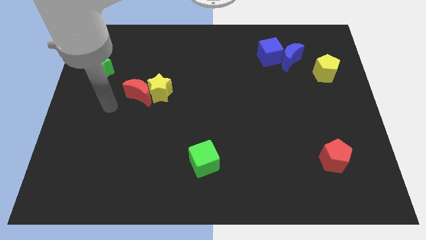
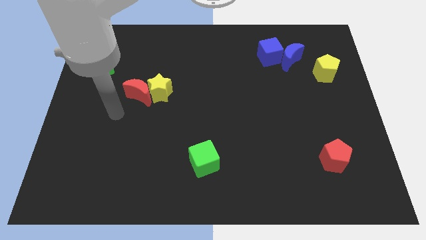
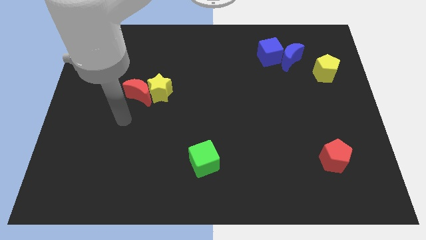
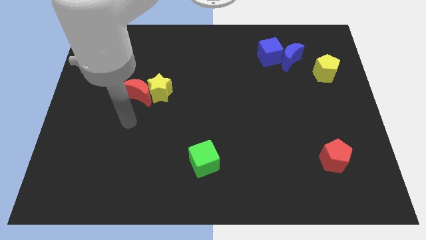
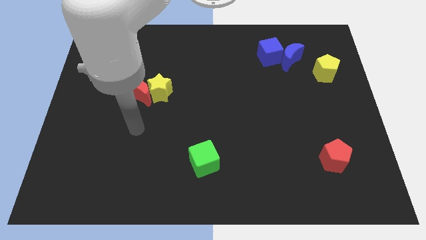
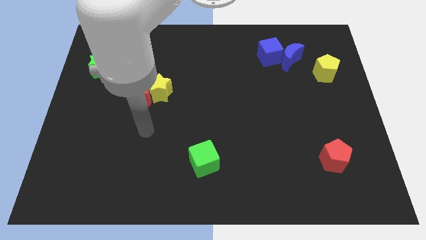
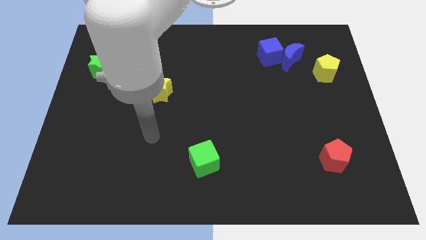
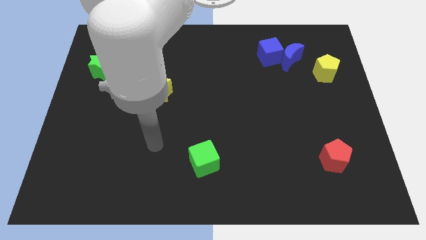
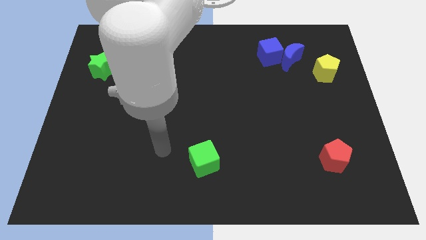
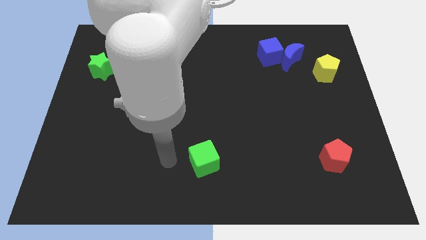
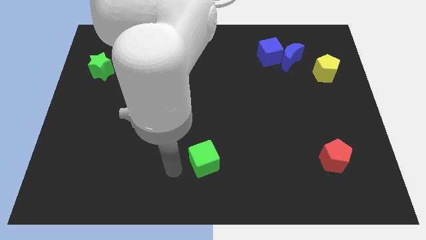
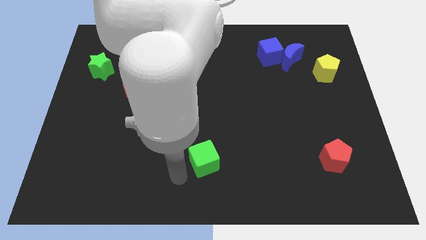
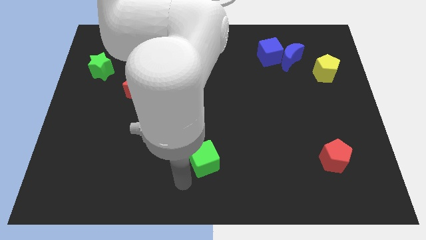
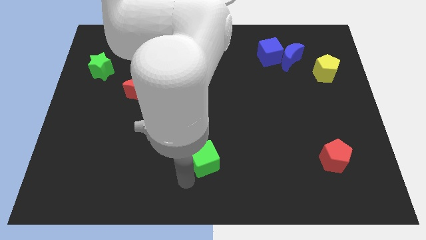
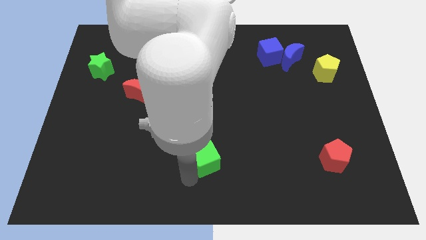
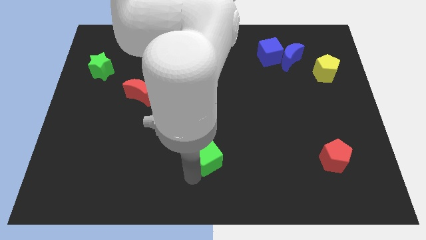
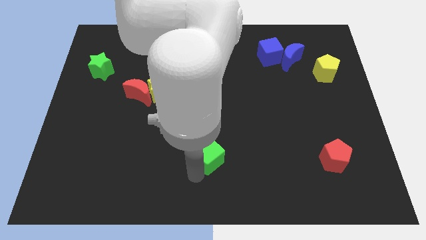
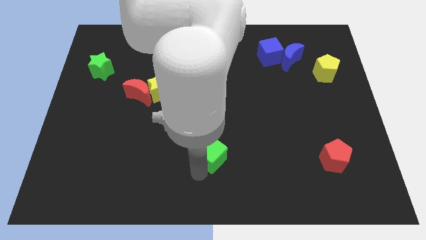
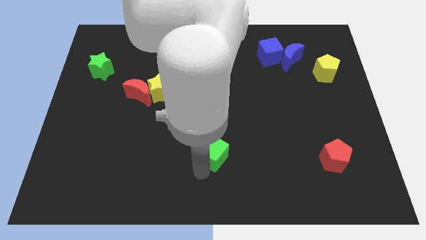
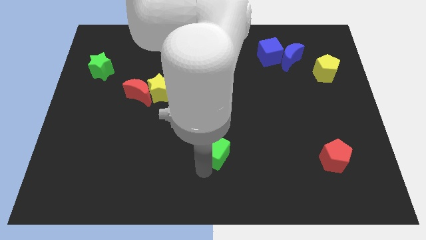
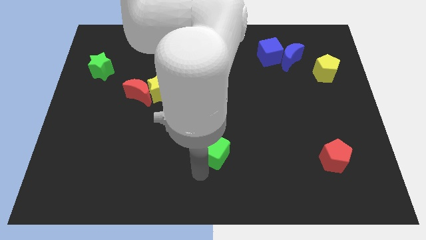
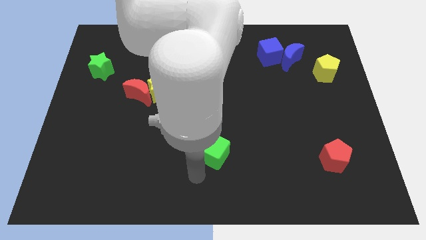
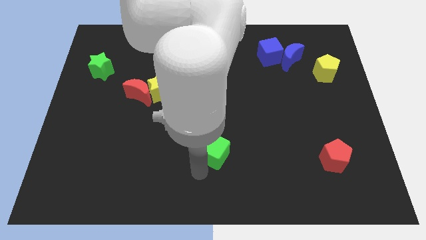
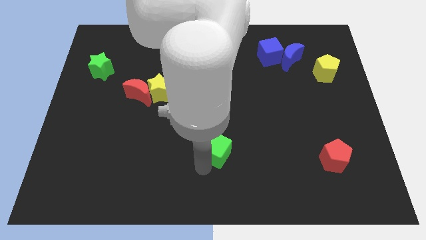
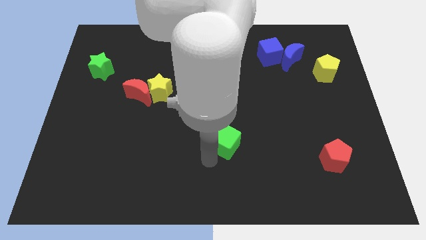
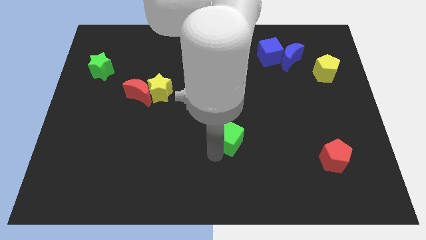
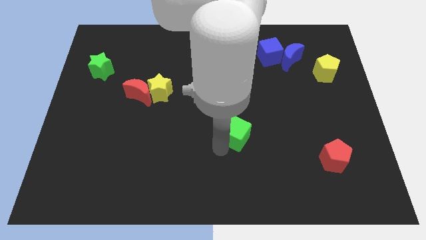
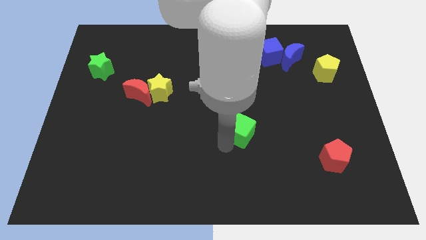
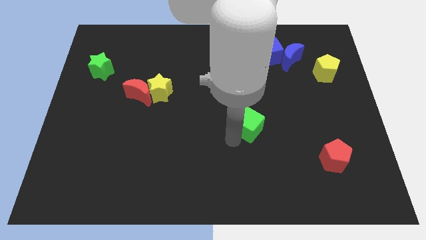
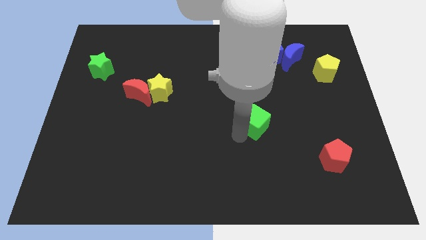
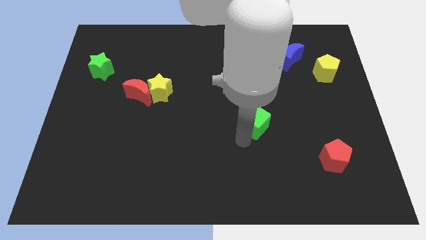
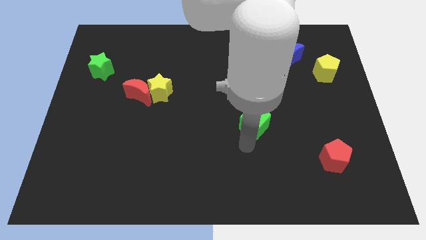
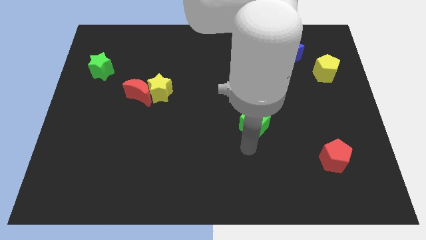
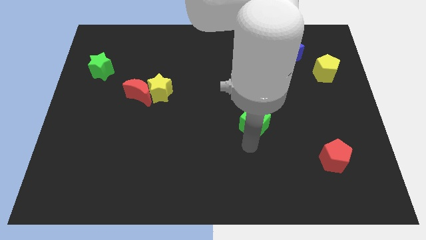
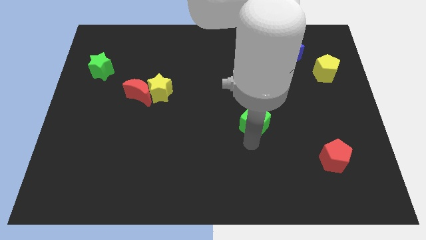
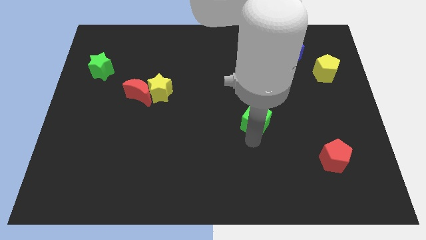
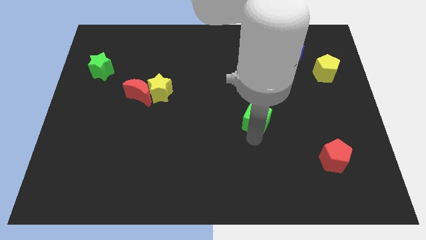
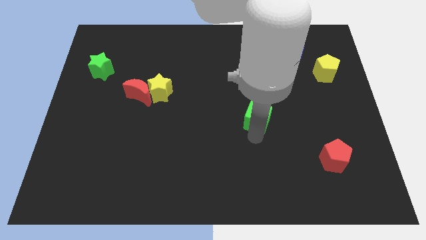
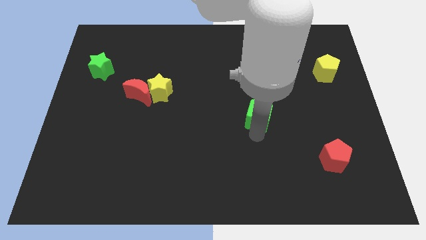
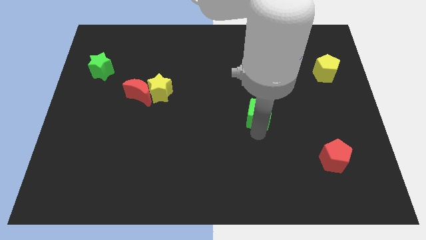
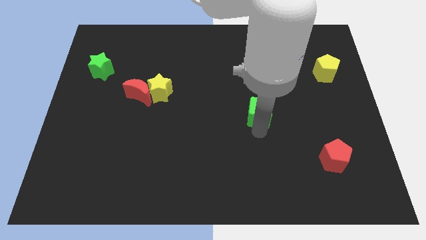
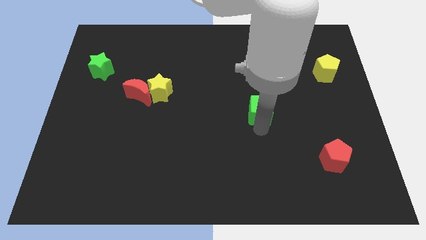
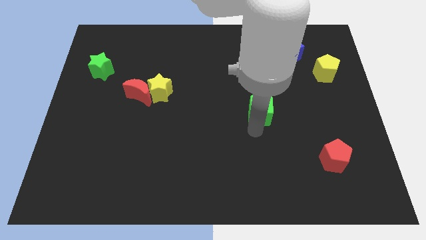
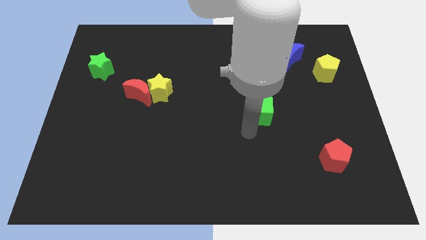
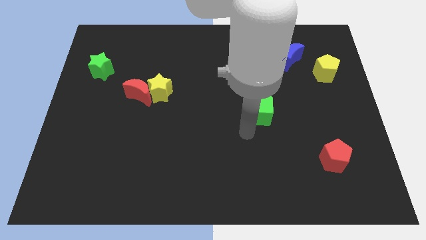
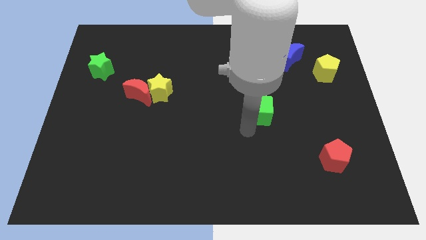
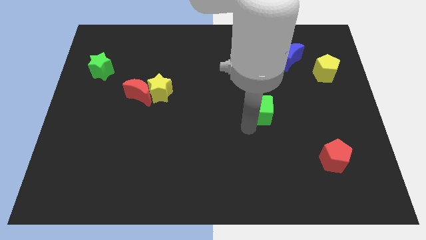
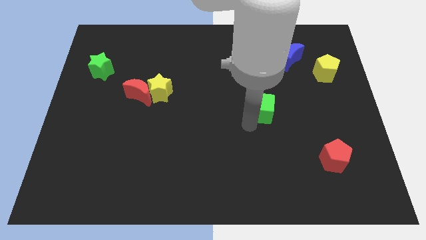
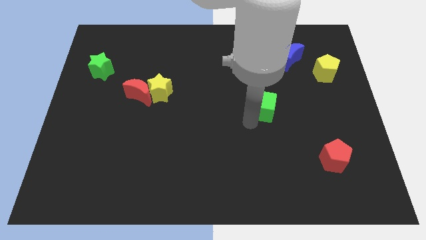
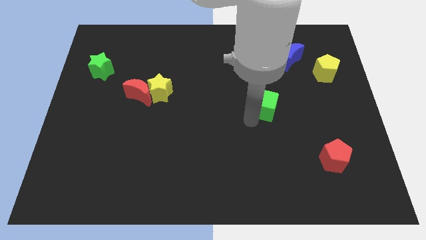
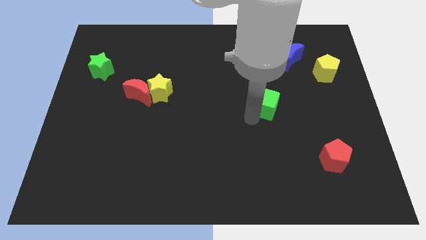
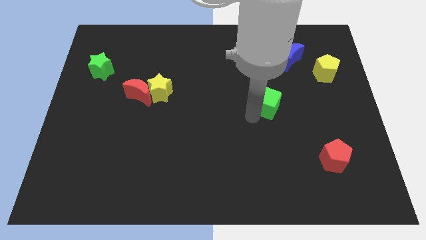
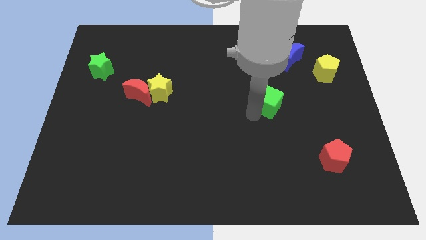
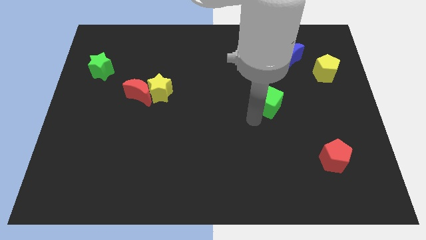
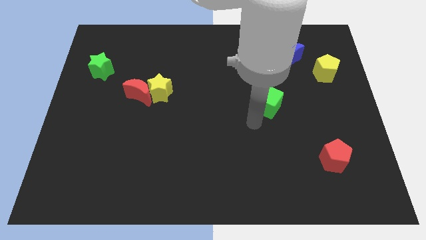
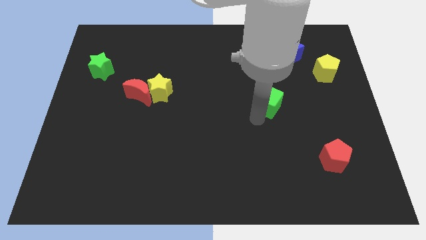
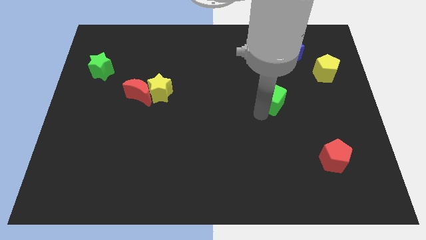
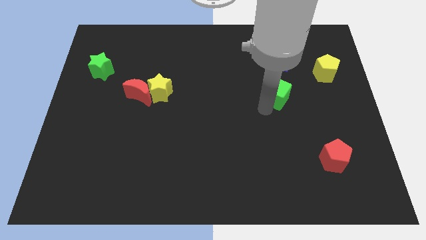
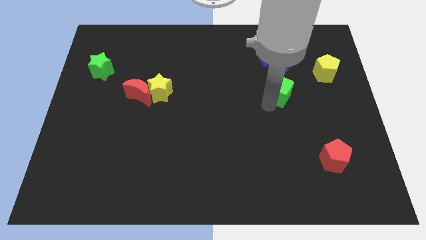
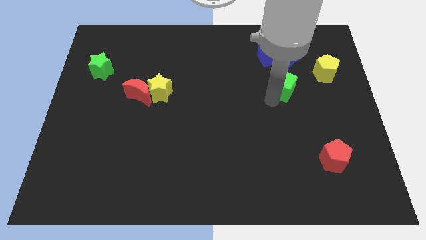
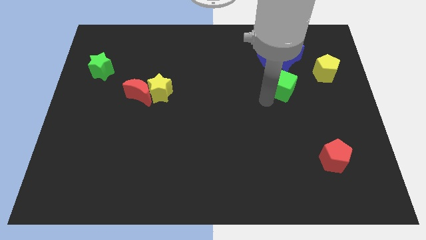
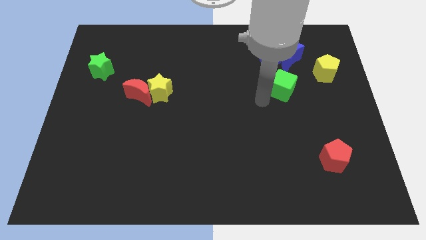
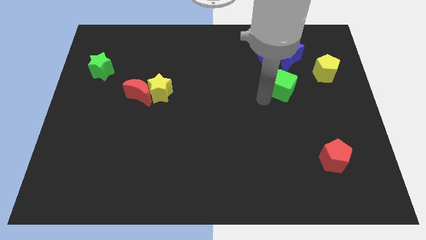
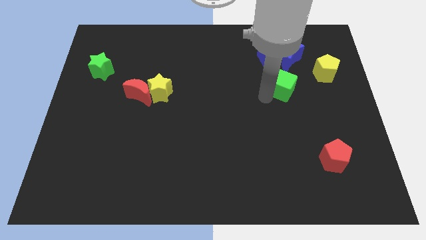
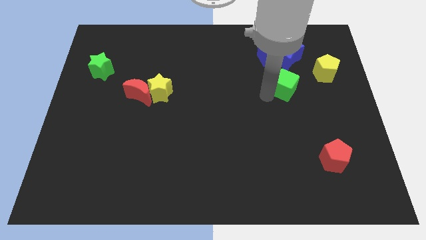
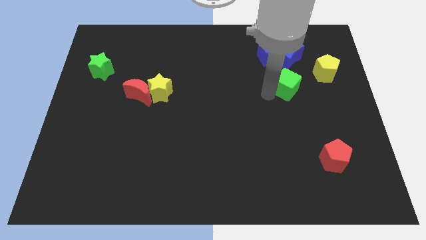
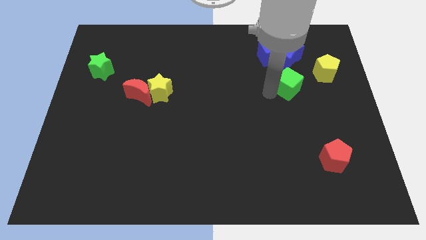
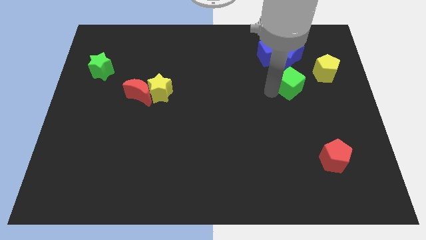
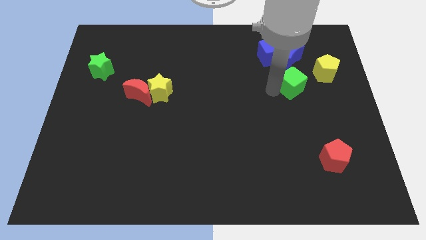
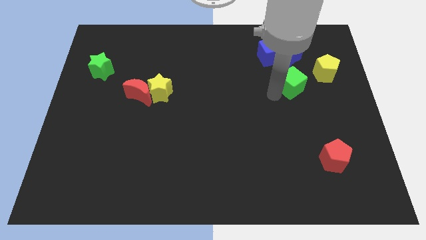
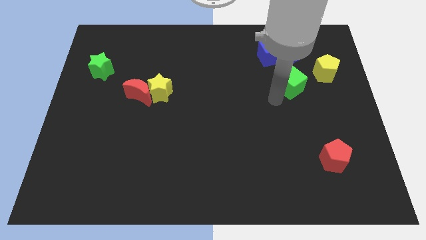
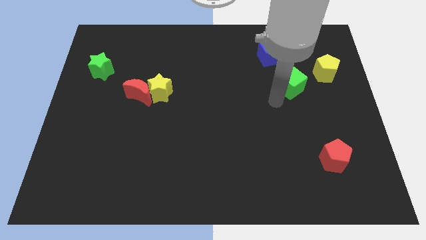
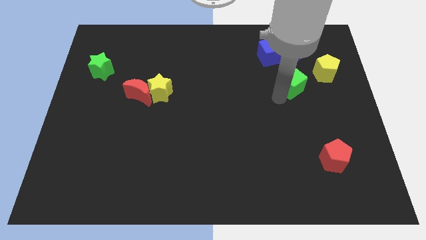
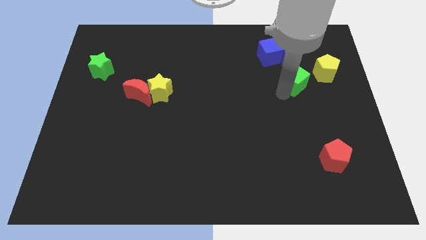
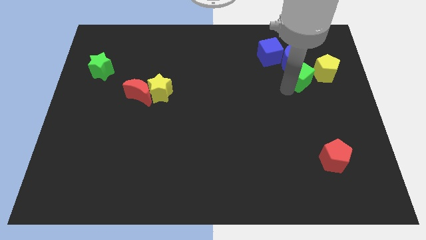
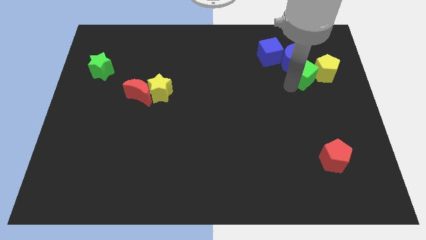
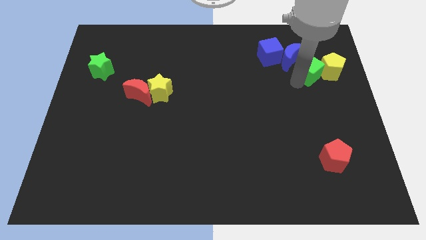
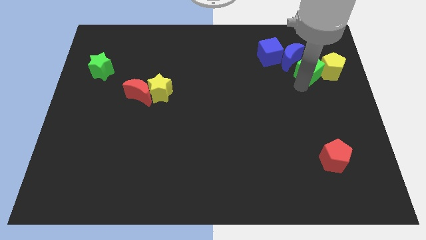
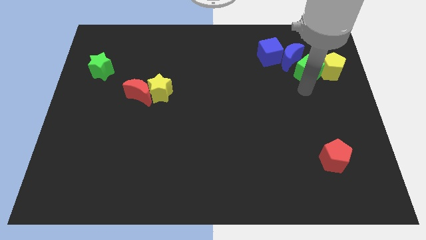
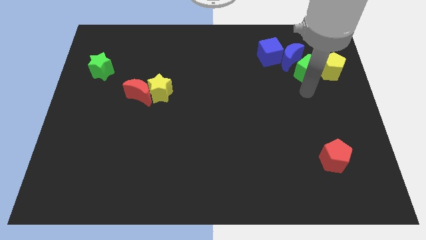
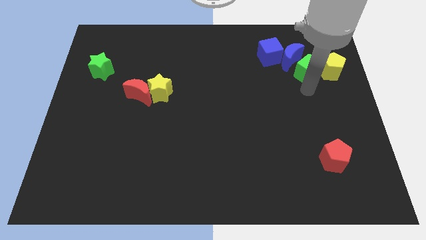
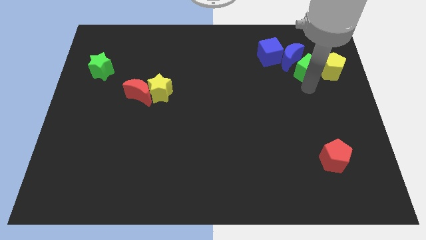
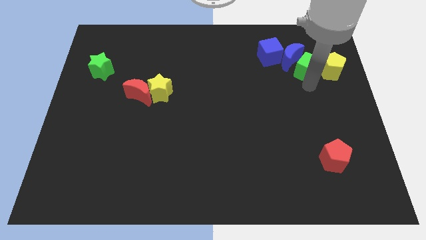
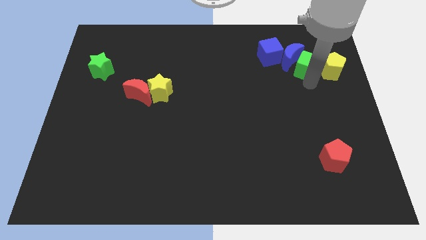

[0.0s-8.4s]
move the green cube right of the blue cube
